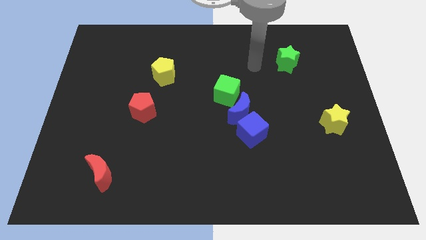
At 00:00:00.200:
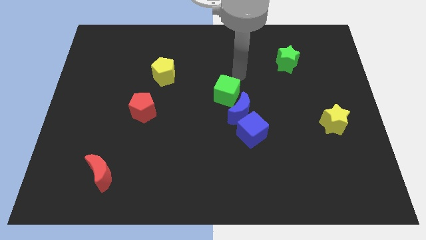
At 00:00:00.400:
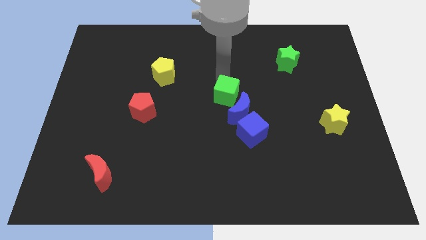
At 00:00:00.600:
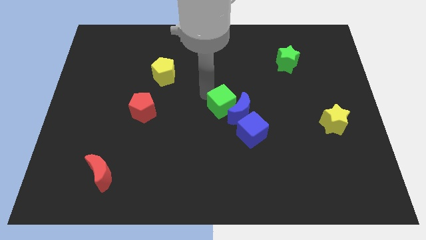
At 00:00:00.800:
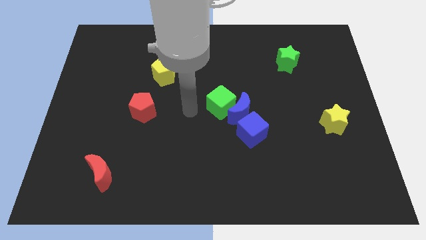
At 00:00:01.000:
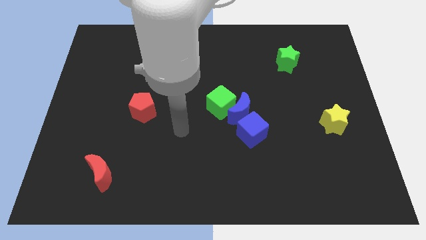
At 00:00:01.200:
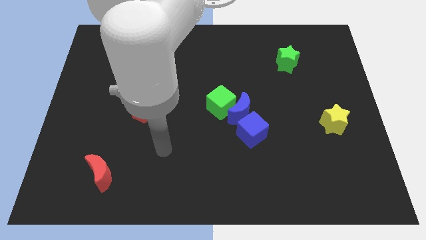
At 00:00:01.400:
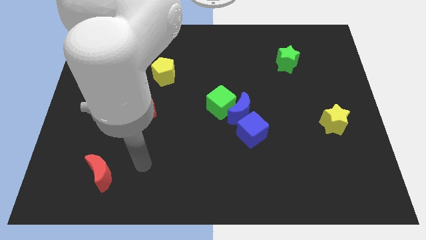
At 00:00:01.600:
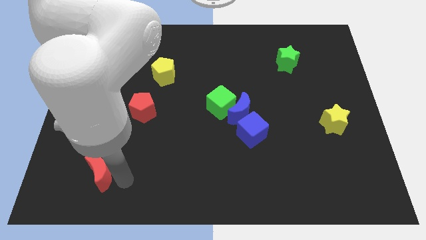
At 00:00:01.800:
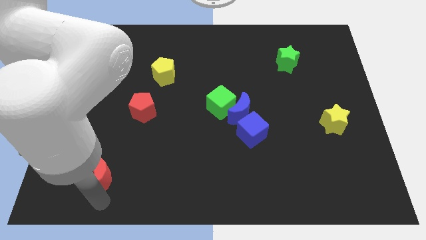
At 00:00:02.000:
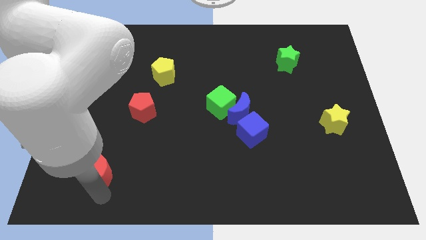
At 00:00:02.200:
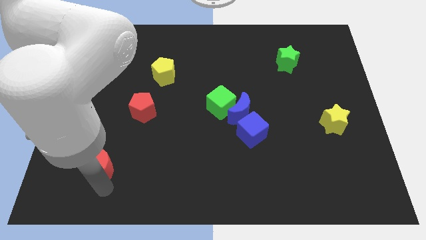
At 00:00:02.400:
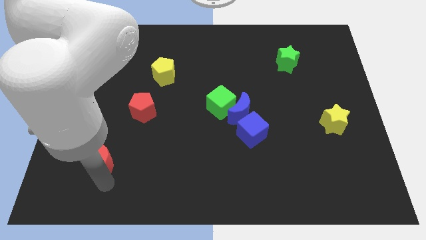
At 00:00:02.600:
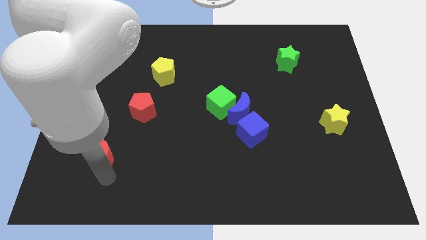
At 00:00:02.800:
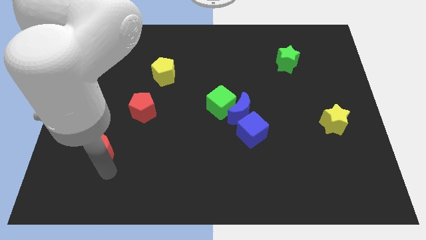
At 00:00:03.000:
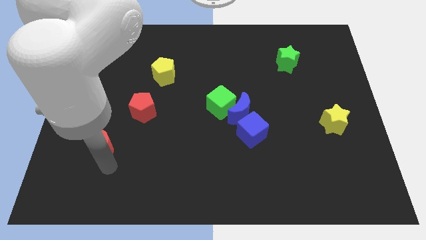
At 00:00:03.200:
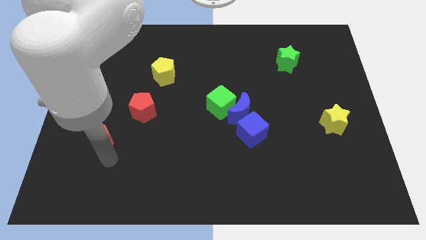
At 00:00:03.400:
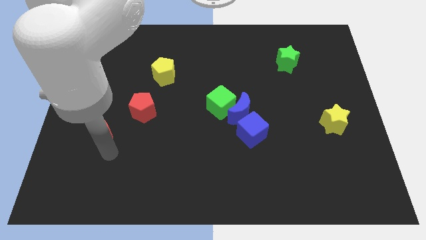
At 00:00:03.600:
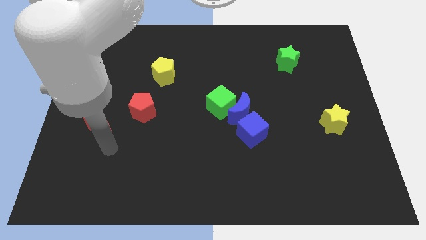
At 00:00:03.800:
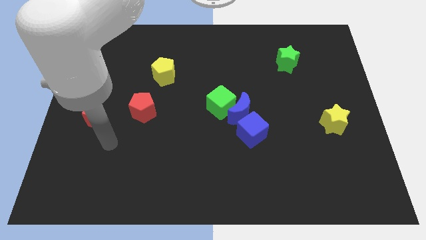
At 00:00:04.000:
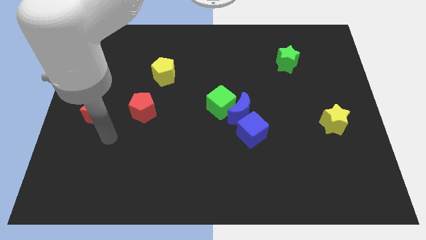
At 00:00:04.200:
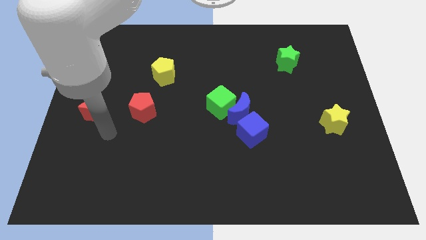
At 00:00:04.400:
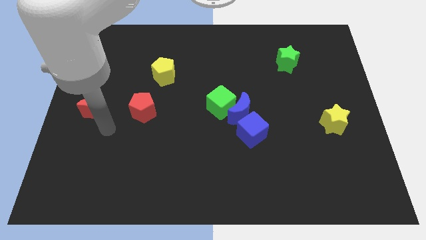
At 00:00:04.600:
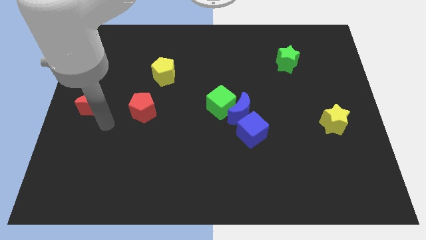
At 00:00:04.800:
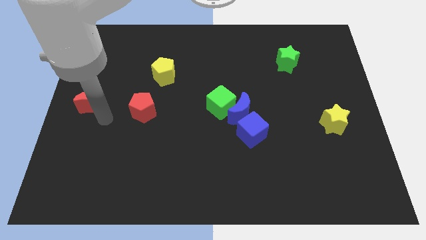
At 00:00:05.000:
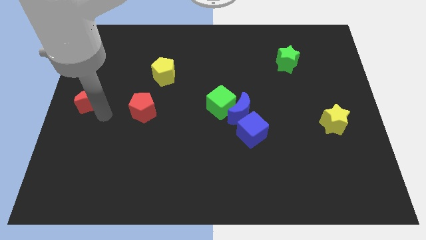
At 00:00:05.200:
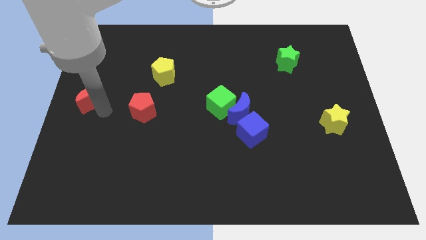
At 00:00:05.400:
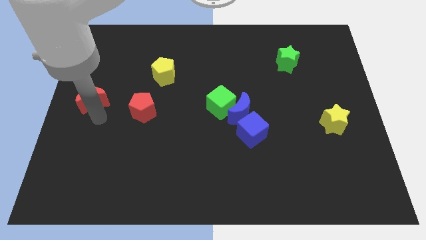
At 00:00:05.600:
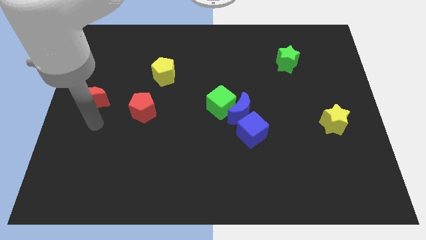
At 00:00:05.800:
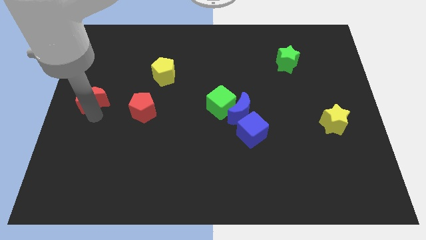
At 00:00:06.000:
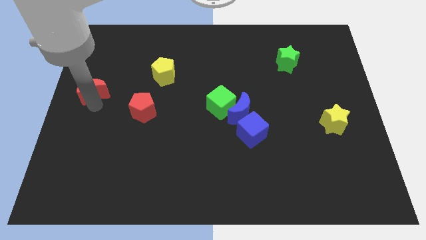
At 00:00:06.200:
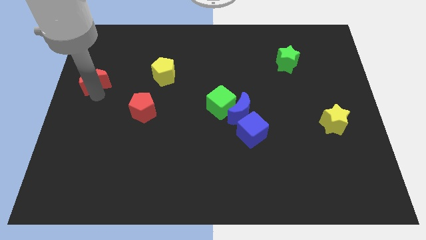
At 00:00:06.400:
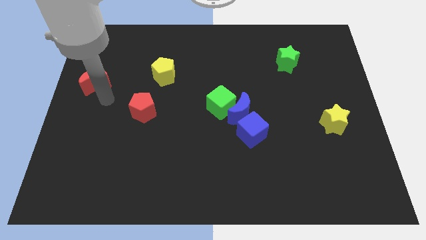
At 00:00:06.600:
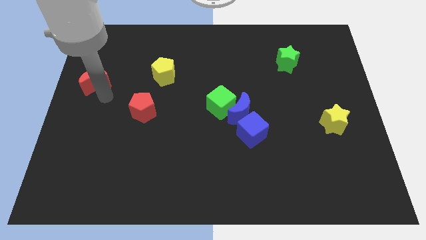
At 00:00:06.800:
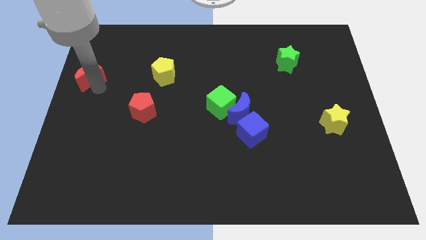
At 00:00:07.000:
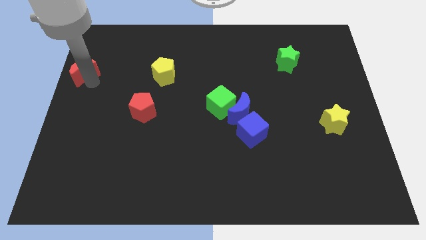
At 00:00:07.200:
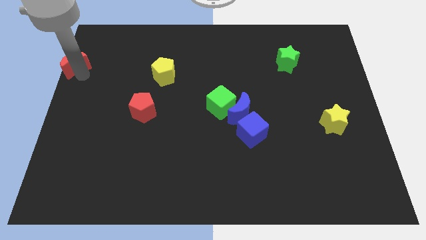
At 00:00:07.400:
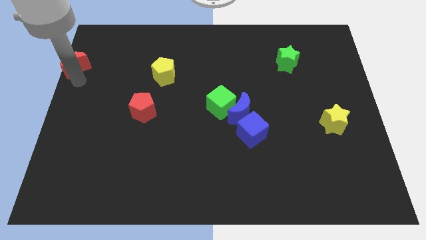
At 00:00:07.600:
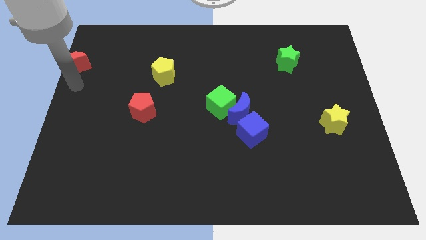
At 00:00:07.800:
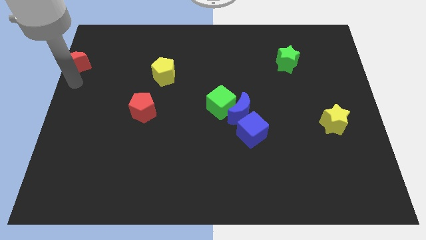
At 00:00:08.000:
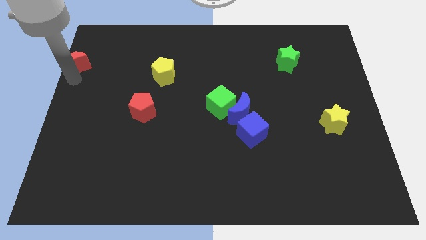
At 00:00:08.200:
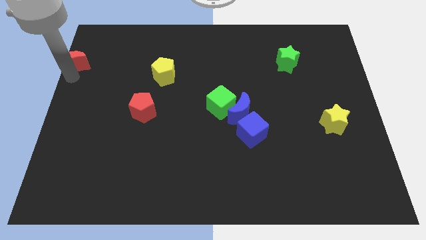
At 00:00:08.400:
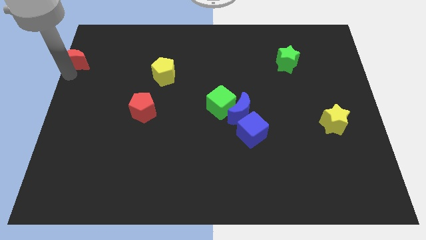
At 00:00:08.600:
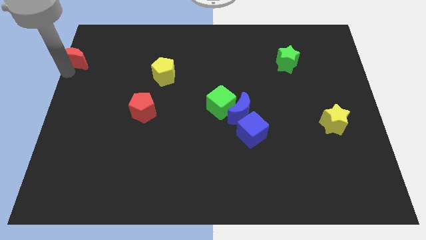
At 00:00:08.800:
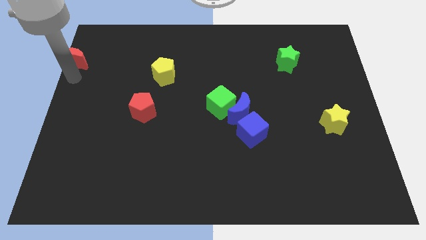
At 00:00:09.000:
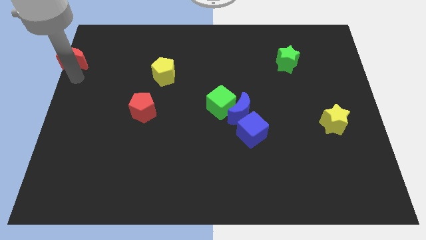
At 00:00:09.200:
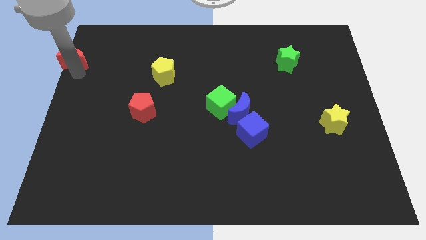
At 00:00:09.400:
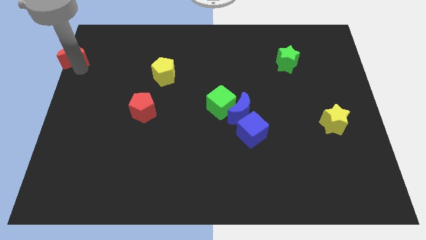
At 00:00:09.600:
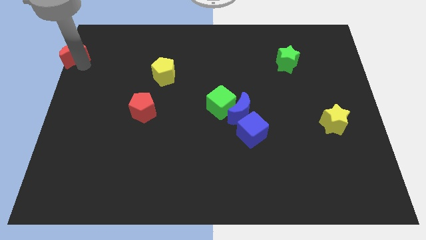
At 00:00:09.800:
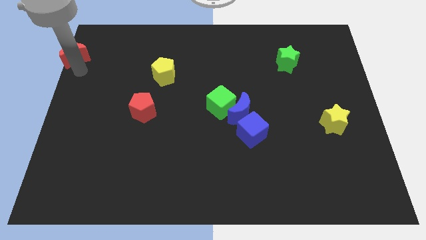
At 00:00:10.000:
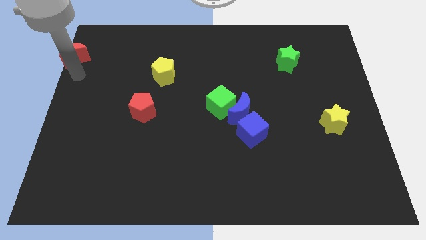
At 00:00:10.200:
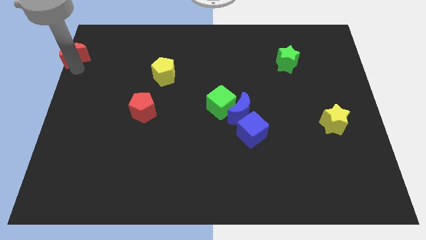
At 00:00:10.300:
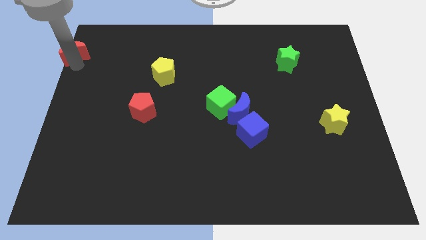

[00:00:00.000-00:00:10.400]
slide the red moon to the top left corner
